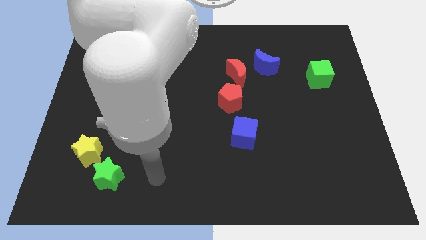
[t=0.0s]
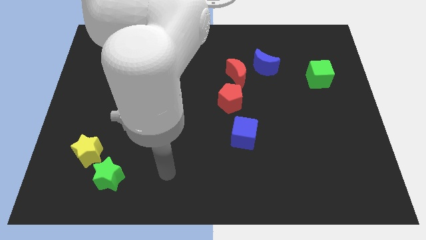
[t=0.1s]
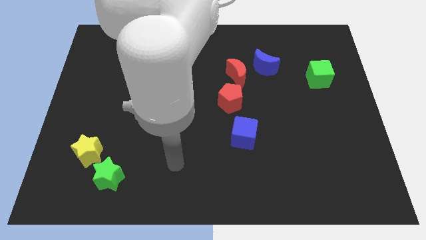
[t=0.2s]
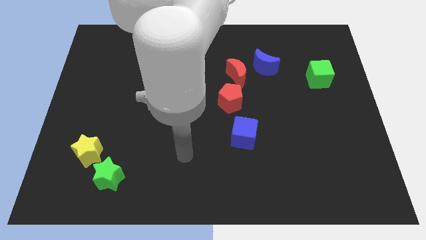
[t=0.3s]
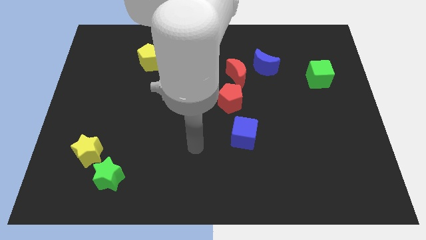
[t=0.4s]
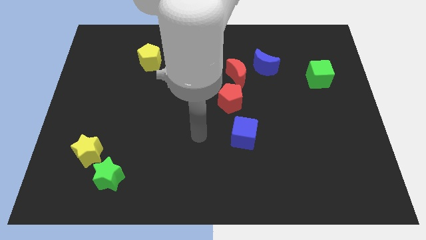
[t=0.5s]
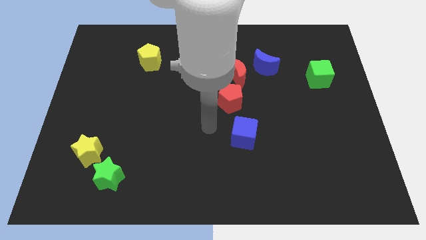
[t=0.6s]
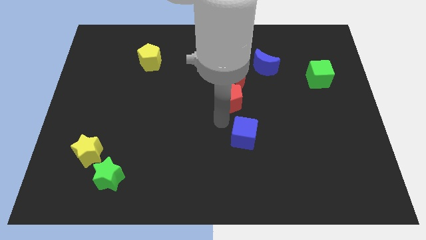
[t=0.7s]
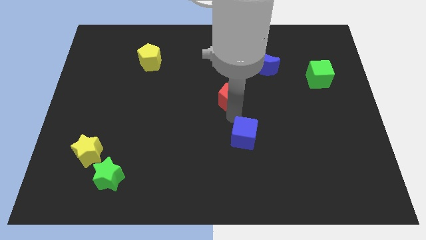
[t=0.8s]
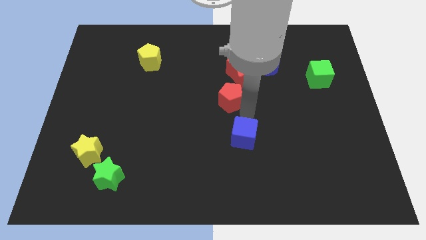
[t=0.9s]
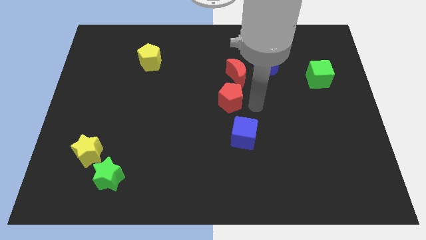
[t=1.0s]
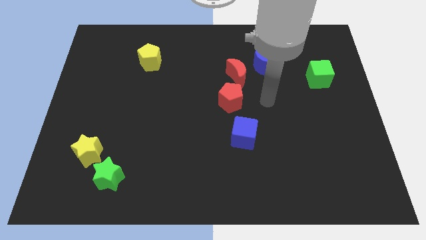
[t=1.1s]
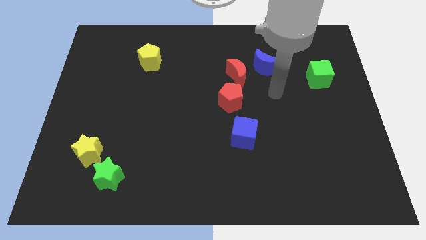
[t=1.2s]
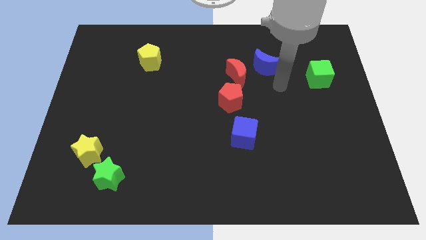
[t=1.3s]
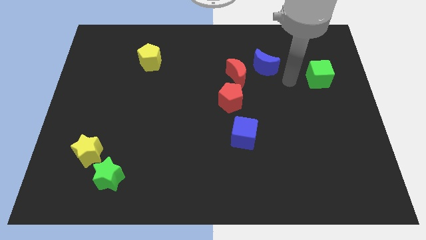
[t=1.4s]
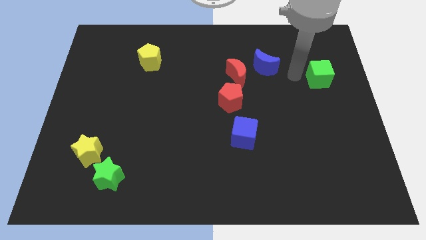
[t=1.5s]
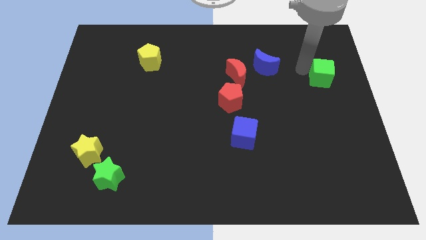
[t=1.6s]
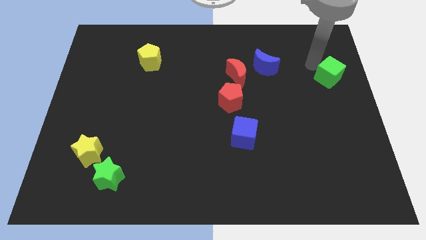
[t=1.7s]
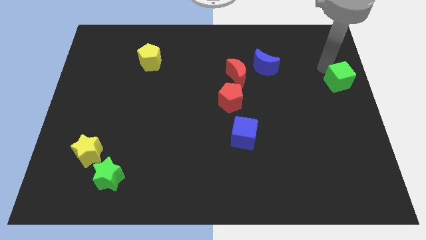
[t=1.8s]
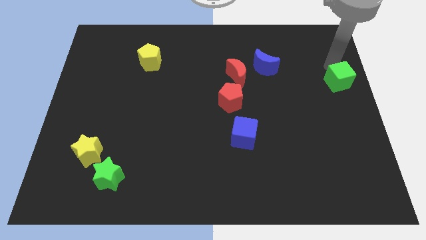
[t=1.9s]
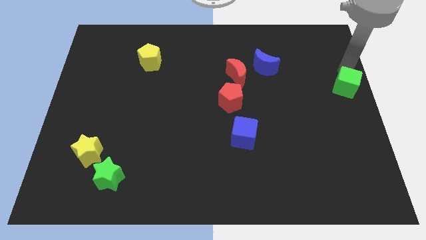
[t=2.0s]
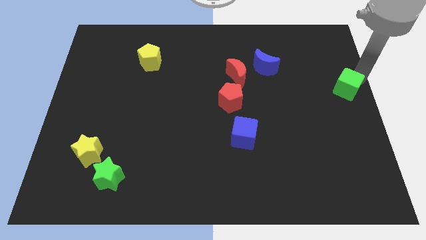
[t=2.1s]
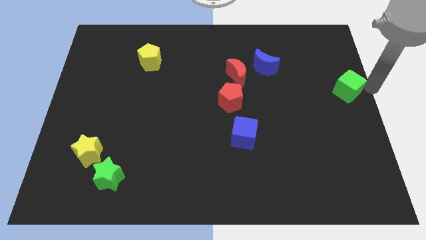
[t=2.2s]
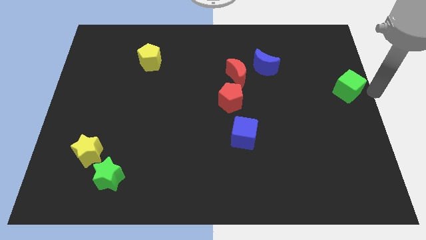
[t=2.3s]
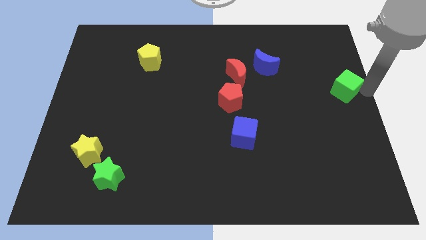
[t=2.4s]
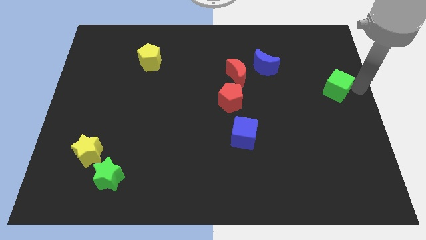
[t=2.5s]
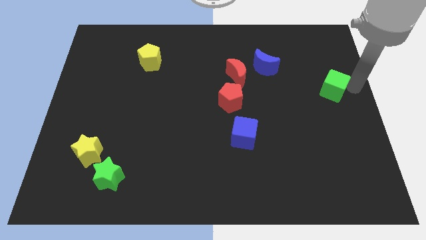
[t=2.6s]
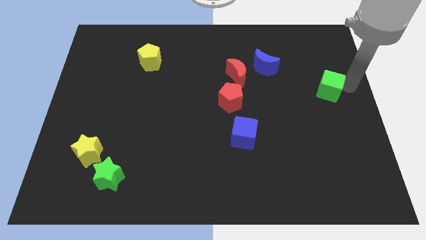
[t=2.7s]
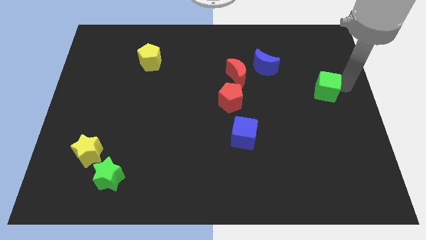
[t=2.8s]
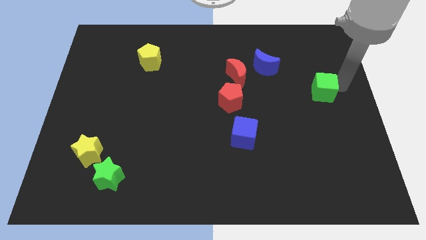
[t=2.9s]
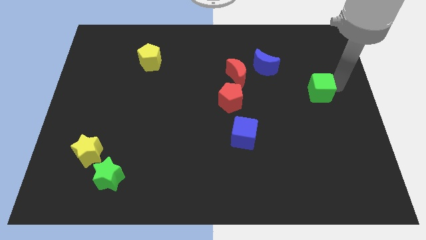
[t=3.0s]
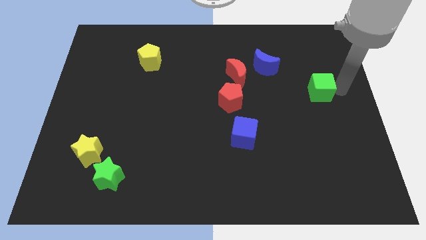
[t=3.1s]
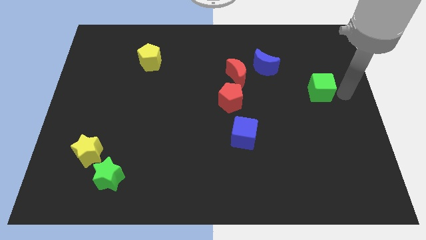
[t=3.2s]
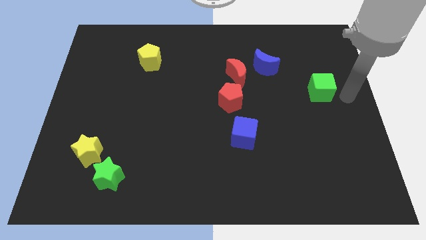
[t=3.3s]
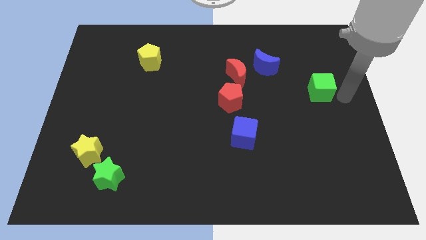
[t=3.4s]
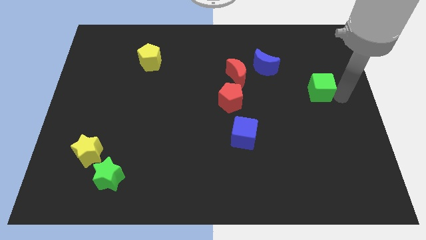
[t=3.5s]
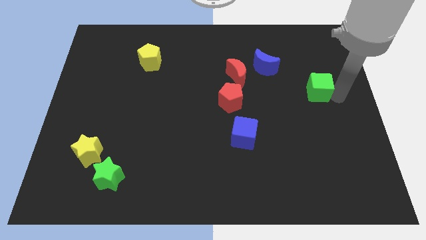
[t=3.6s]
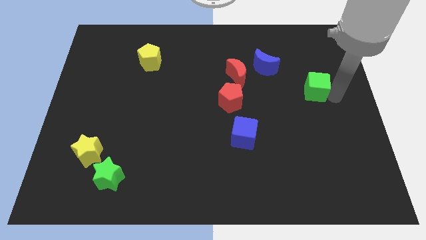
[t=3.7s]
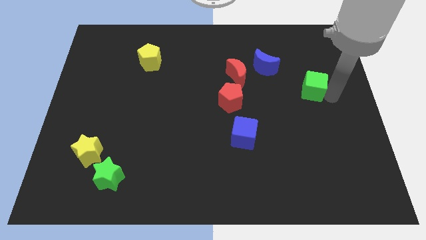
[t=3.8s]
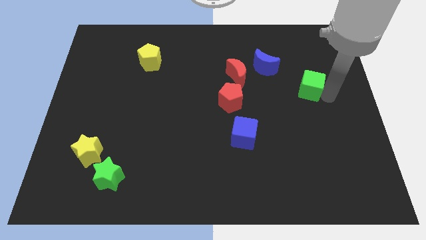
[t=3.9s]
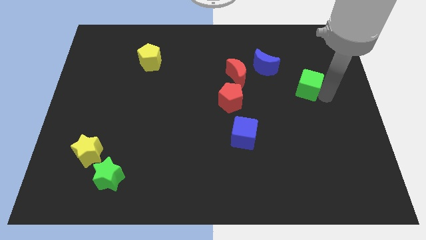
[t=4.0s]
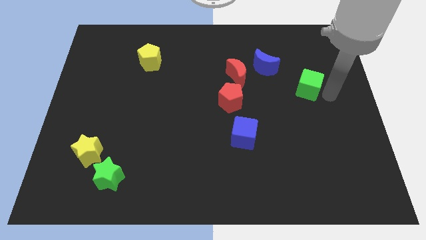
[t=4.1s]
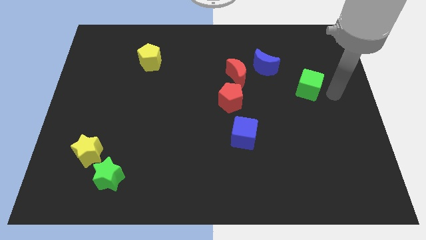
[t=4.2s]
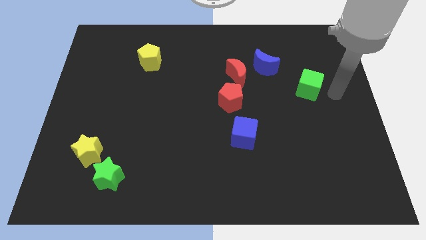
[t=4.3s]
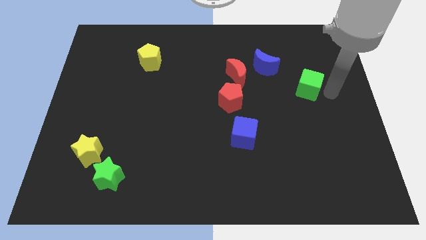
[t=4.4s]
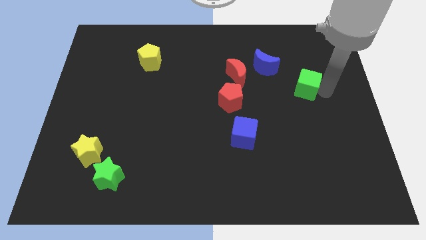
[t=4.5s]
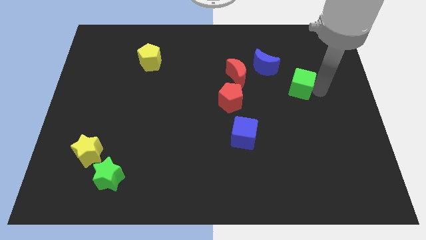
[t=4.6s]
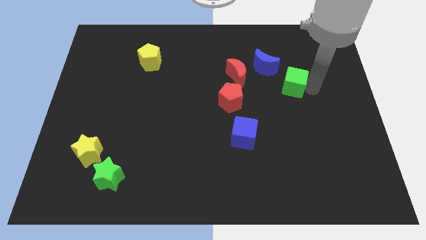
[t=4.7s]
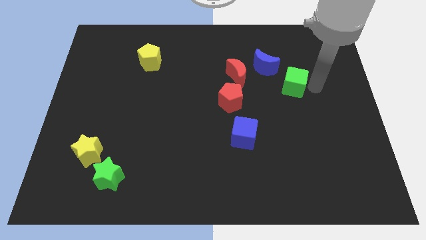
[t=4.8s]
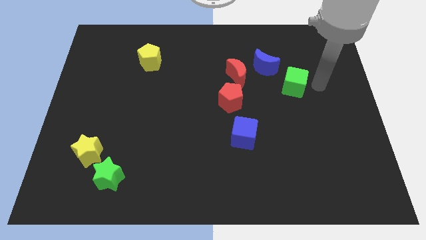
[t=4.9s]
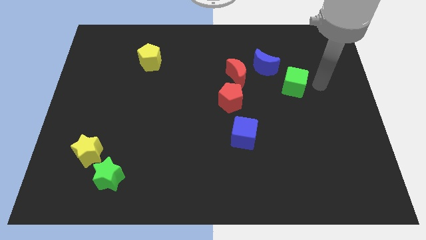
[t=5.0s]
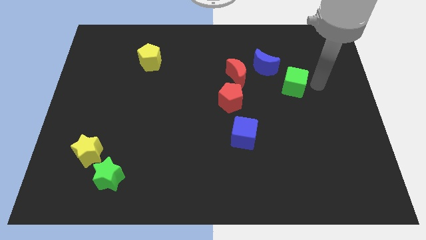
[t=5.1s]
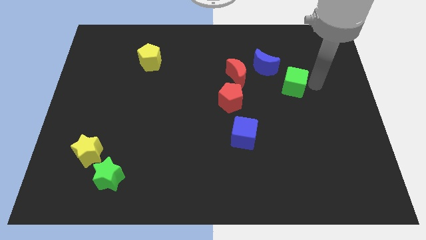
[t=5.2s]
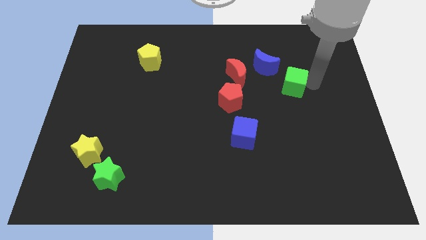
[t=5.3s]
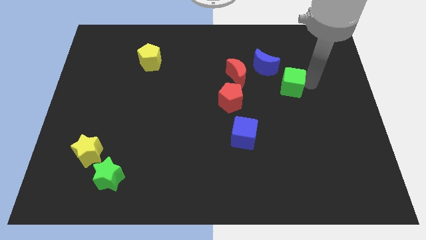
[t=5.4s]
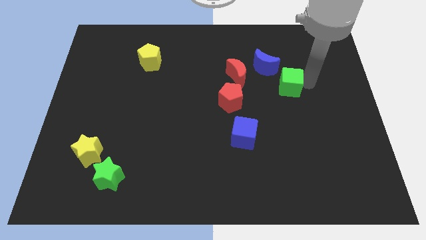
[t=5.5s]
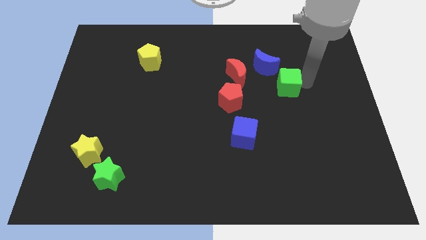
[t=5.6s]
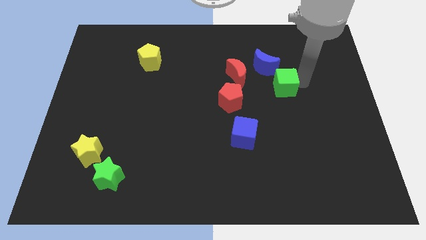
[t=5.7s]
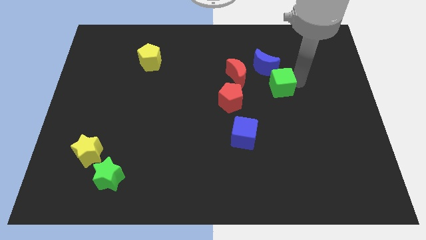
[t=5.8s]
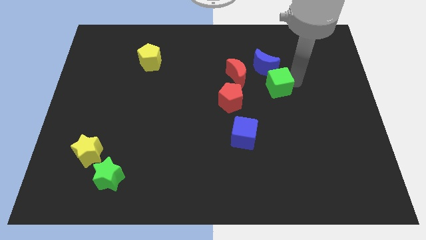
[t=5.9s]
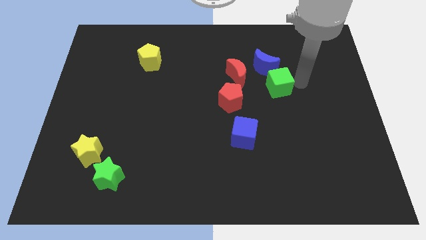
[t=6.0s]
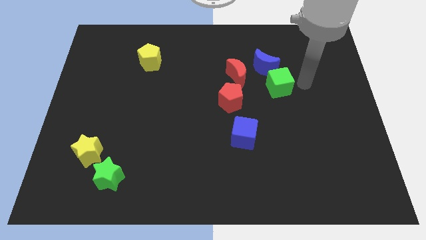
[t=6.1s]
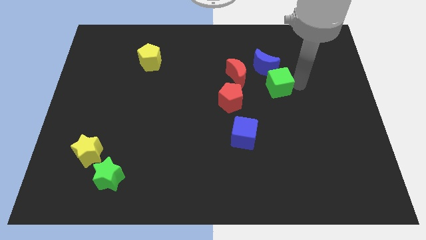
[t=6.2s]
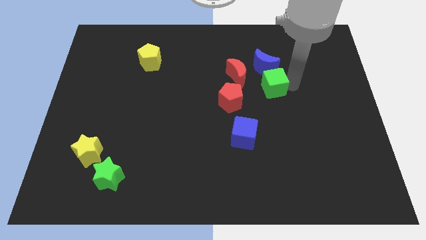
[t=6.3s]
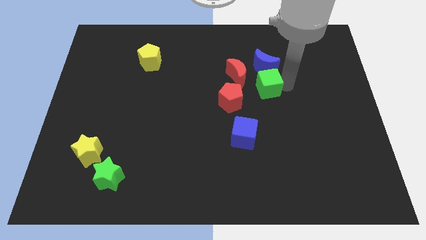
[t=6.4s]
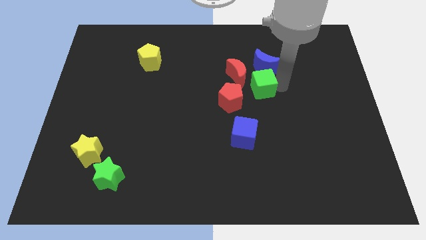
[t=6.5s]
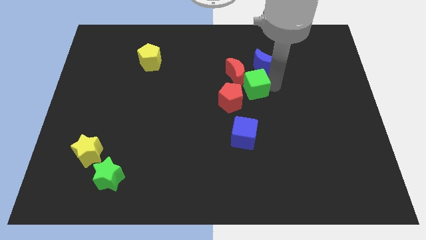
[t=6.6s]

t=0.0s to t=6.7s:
slide the green cube to the top side of the blue cube
